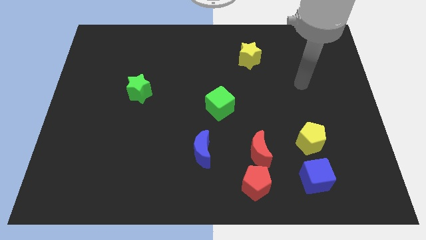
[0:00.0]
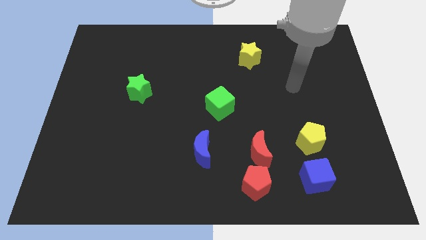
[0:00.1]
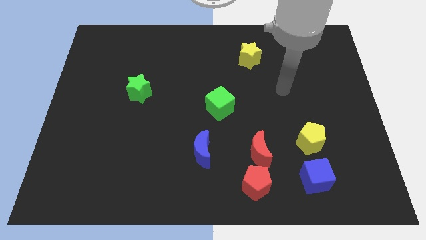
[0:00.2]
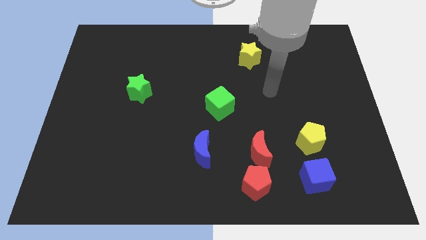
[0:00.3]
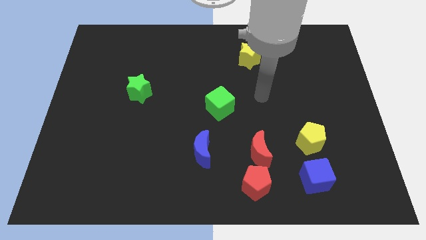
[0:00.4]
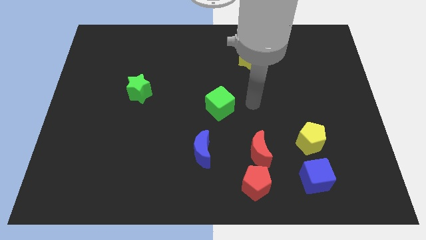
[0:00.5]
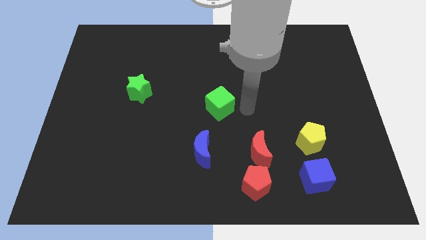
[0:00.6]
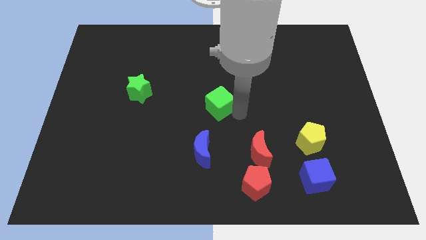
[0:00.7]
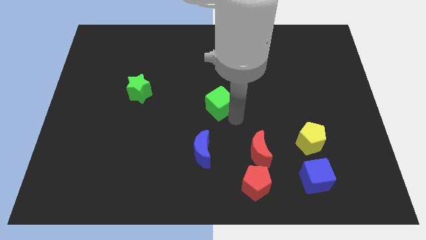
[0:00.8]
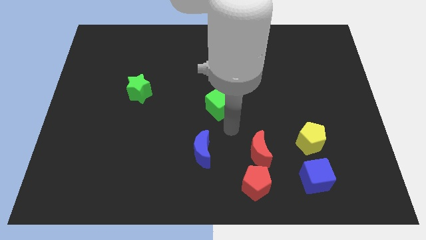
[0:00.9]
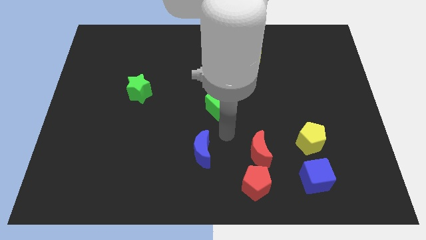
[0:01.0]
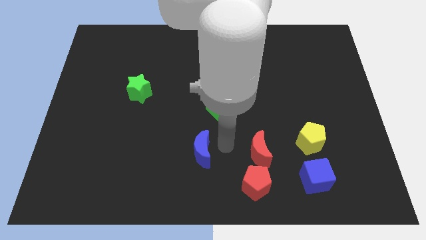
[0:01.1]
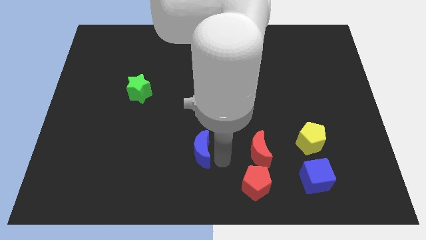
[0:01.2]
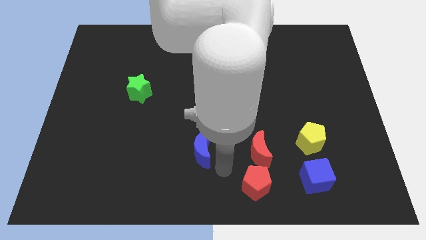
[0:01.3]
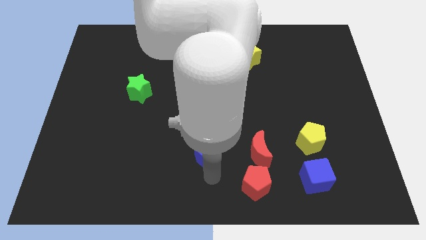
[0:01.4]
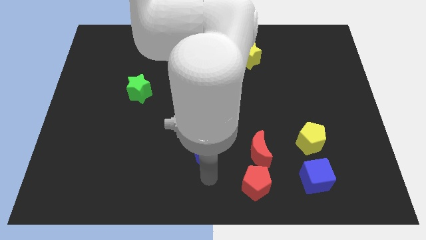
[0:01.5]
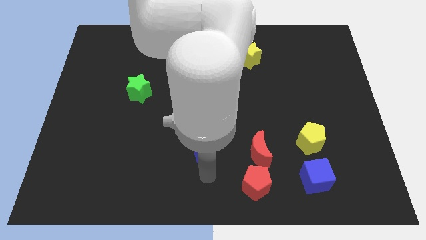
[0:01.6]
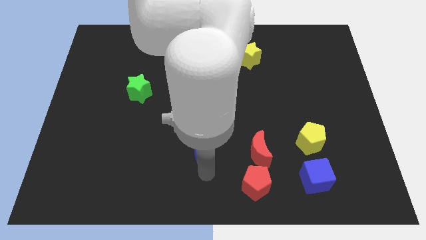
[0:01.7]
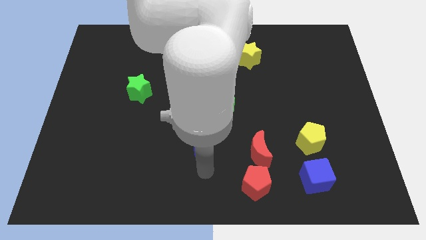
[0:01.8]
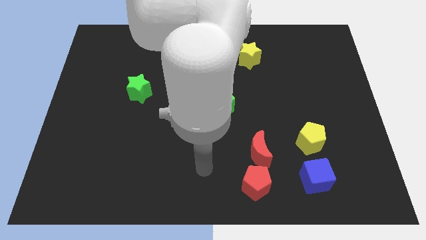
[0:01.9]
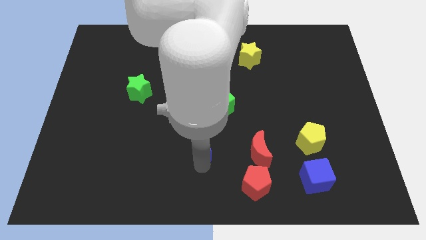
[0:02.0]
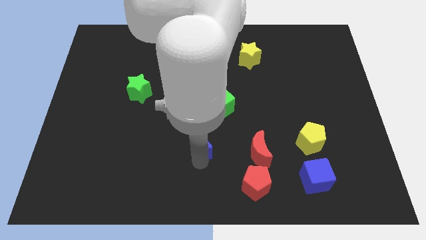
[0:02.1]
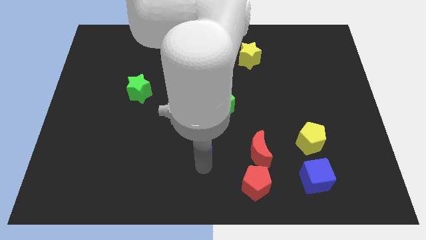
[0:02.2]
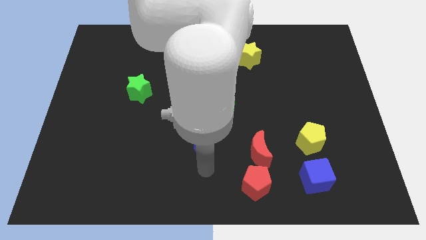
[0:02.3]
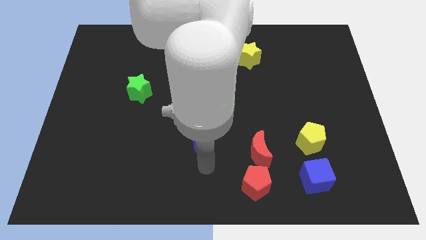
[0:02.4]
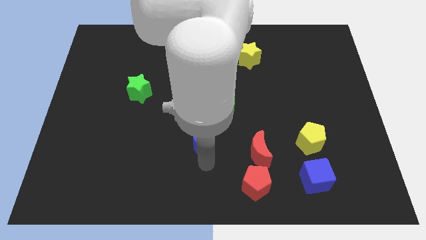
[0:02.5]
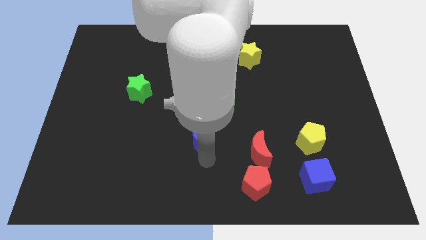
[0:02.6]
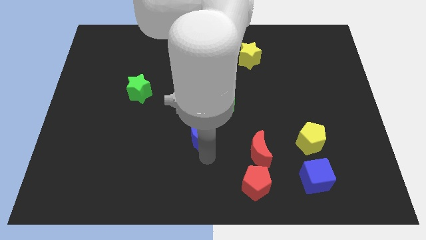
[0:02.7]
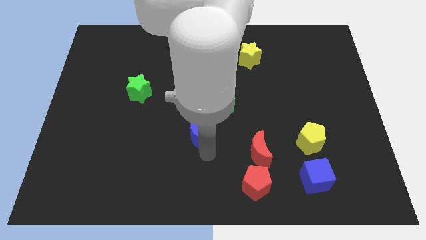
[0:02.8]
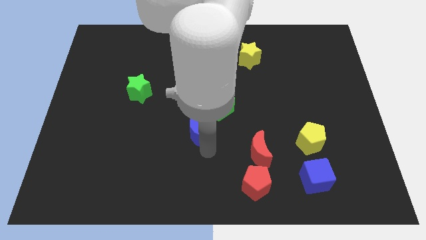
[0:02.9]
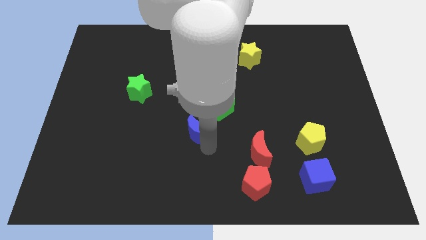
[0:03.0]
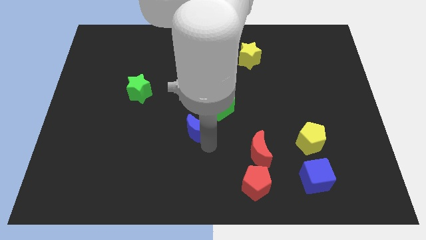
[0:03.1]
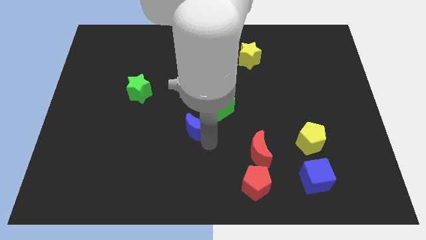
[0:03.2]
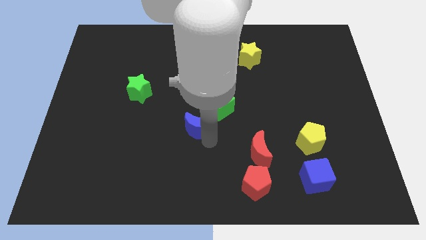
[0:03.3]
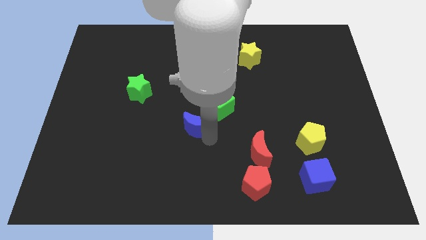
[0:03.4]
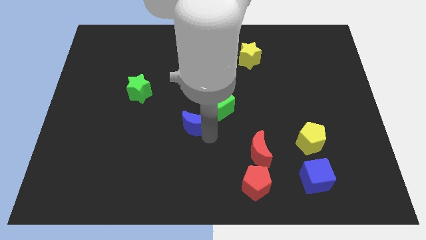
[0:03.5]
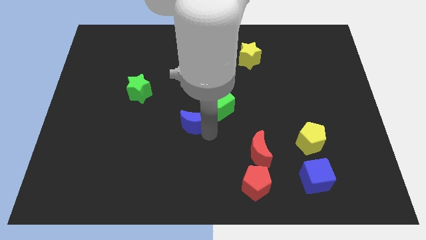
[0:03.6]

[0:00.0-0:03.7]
slide the blue moon up slightly

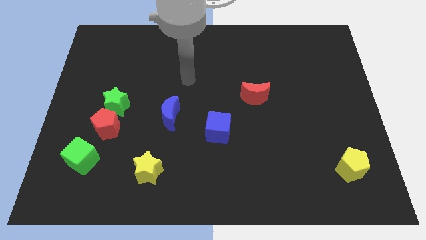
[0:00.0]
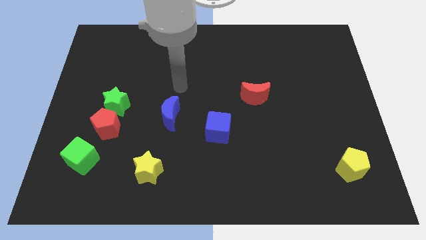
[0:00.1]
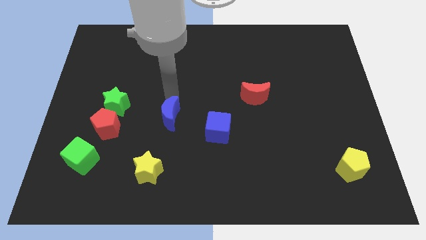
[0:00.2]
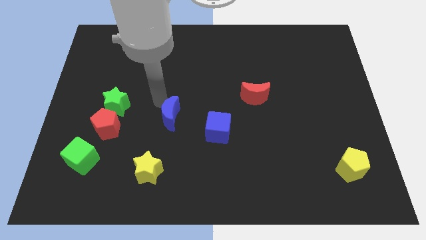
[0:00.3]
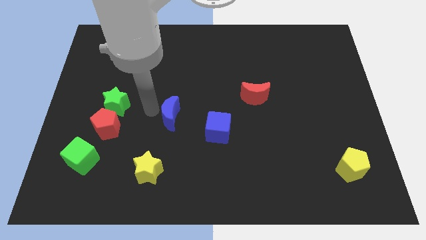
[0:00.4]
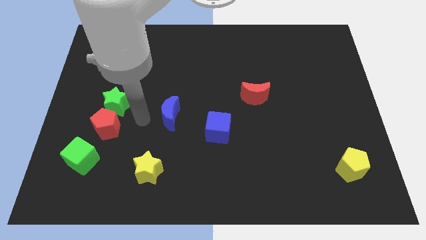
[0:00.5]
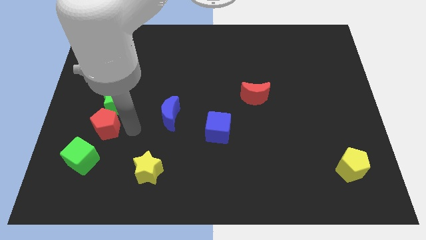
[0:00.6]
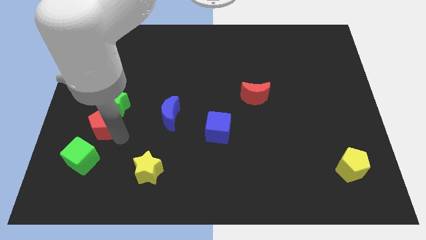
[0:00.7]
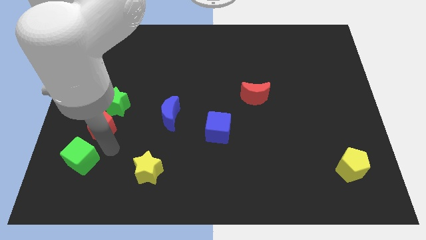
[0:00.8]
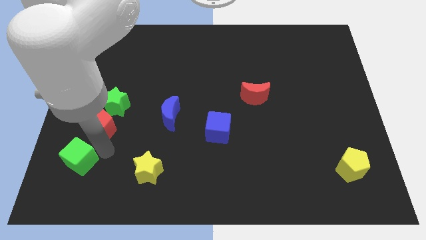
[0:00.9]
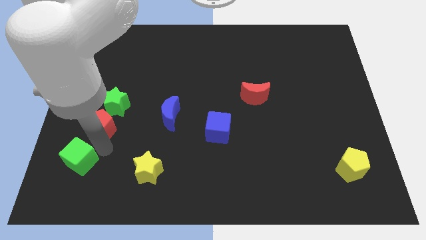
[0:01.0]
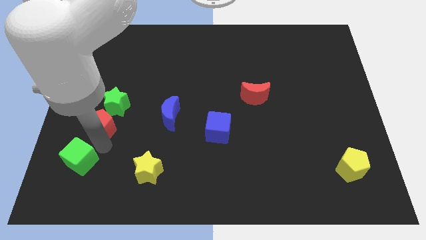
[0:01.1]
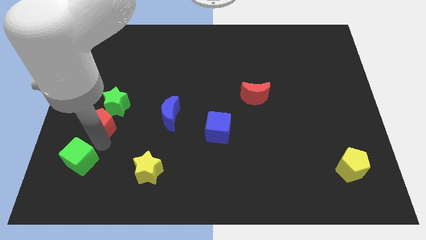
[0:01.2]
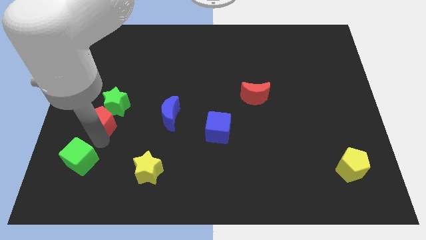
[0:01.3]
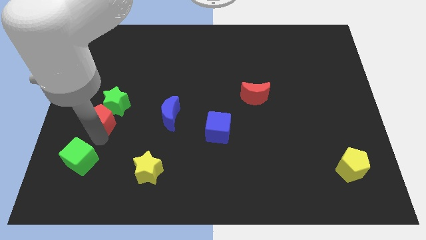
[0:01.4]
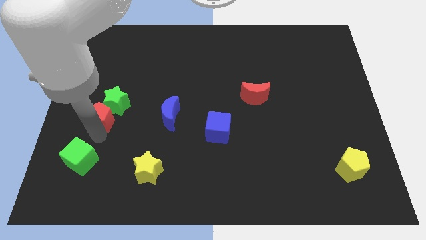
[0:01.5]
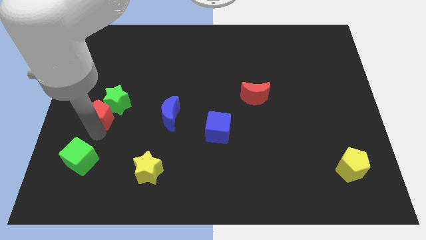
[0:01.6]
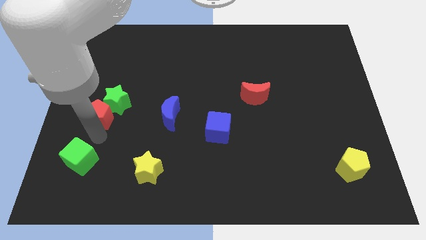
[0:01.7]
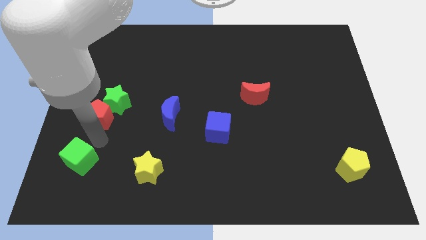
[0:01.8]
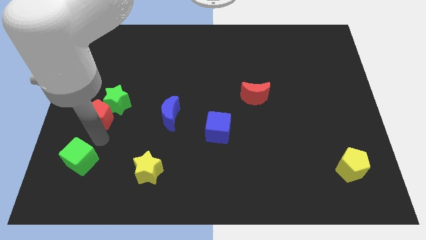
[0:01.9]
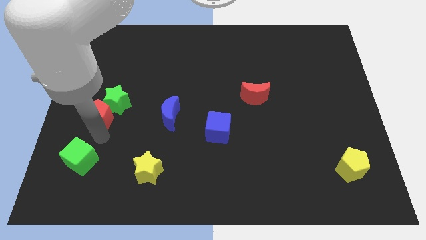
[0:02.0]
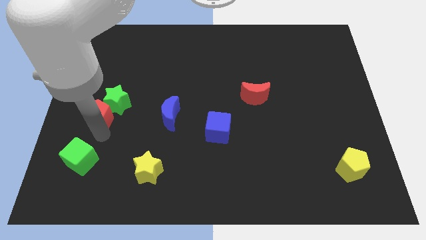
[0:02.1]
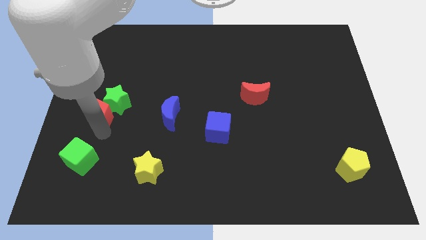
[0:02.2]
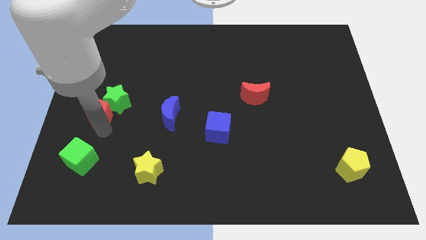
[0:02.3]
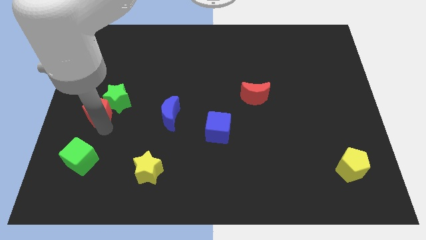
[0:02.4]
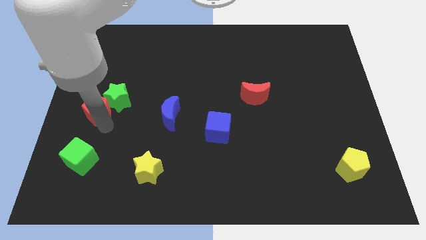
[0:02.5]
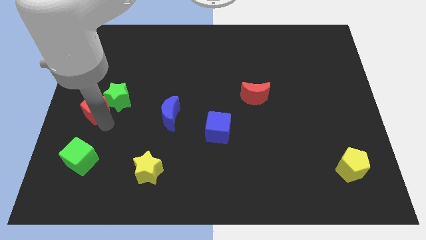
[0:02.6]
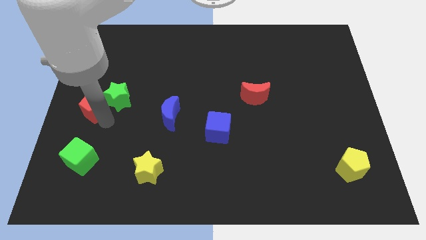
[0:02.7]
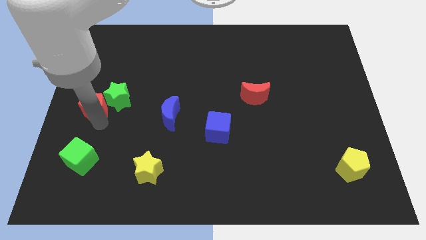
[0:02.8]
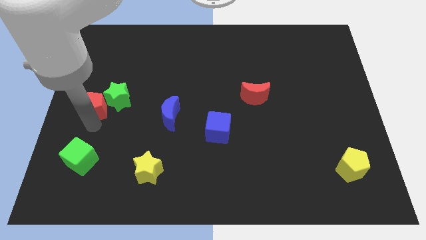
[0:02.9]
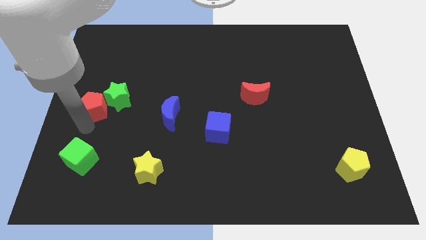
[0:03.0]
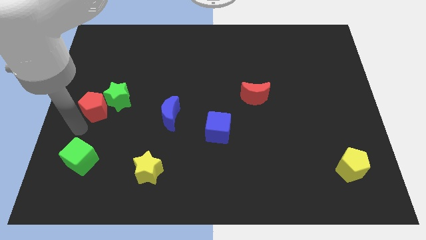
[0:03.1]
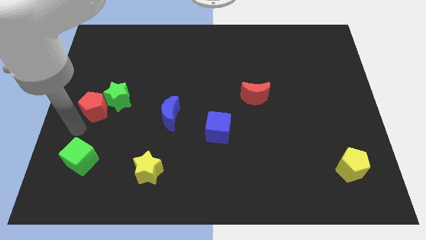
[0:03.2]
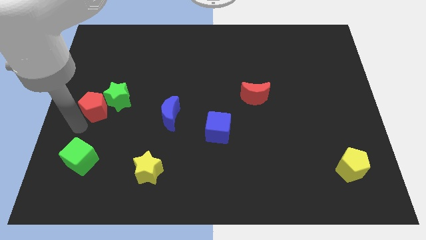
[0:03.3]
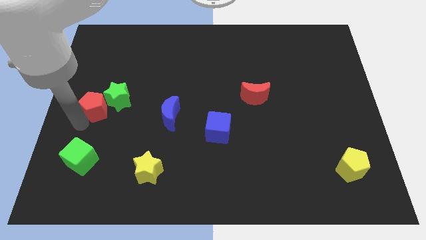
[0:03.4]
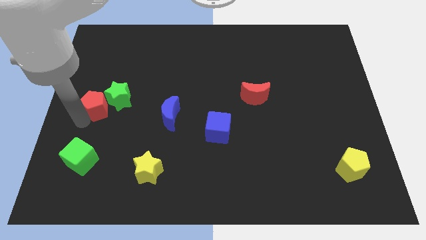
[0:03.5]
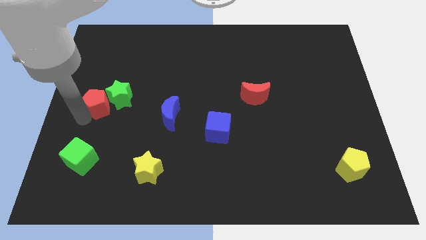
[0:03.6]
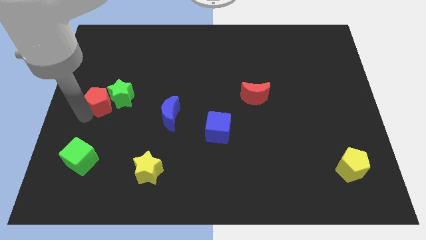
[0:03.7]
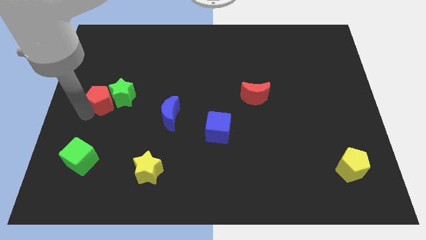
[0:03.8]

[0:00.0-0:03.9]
push the red pentagon up a little bit

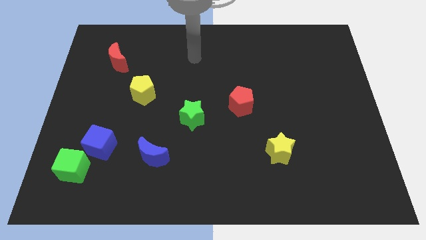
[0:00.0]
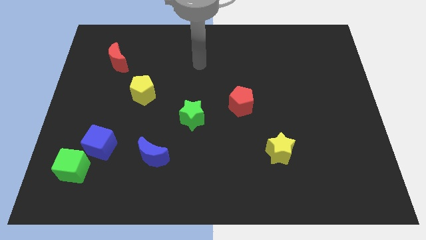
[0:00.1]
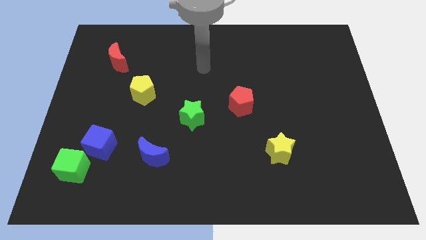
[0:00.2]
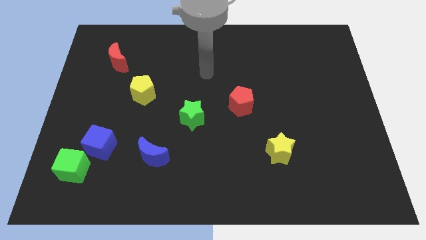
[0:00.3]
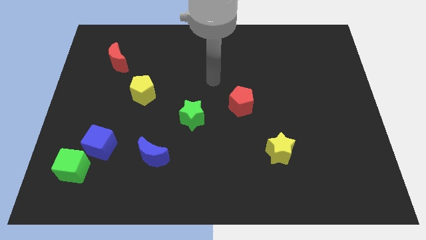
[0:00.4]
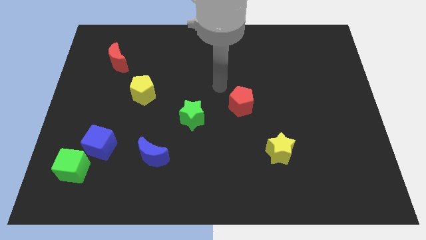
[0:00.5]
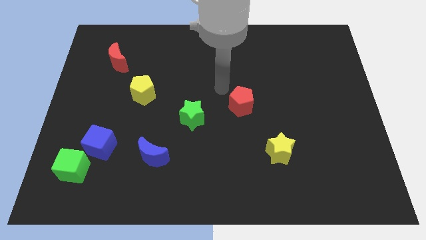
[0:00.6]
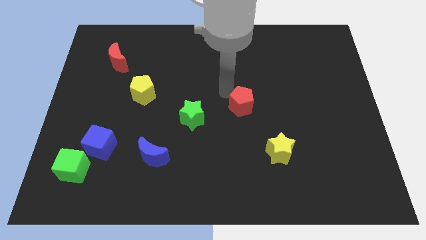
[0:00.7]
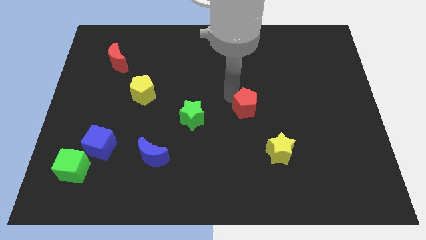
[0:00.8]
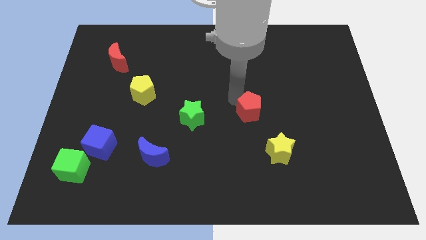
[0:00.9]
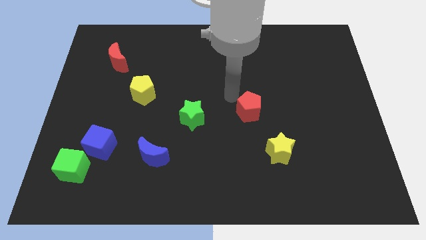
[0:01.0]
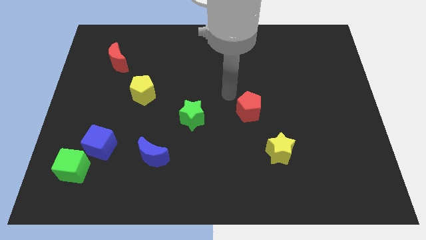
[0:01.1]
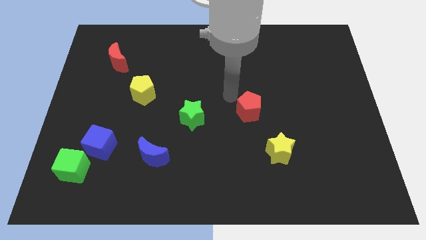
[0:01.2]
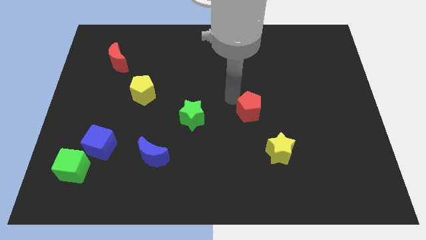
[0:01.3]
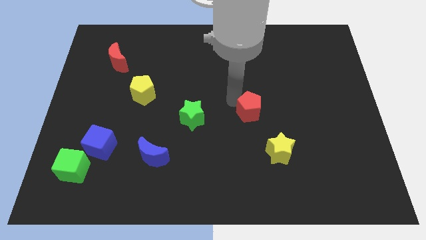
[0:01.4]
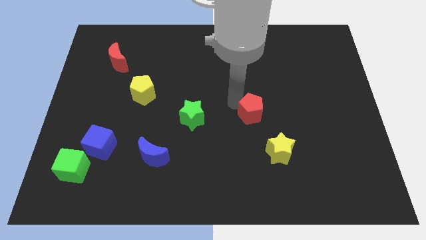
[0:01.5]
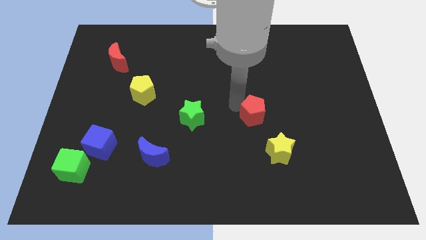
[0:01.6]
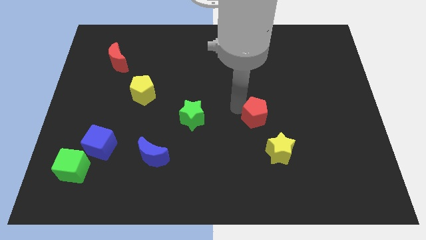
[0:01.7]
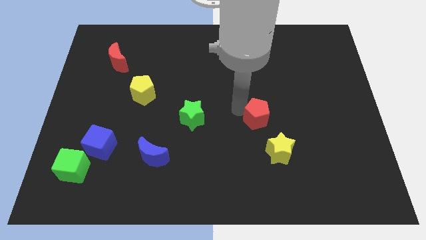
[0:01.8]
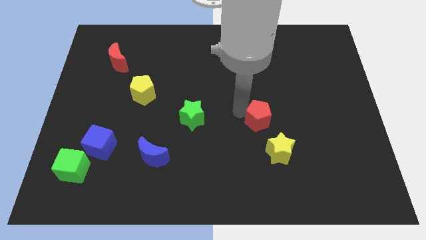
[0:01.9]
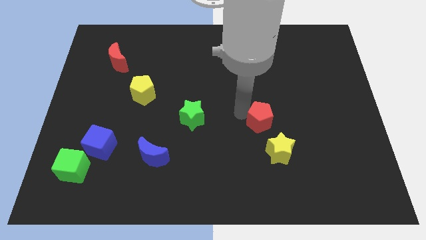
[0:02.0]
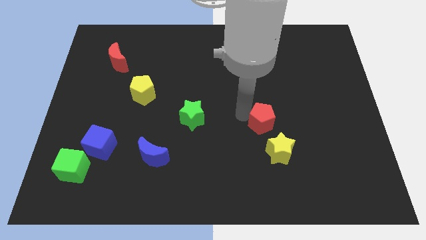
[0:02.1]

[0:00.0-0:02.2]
slightly move the red pentagon down and right
